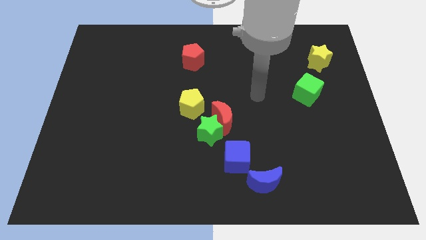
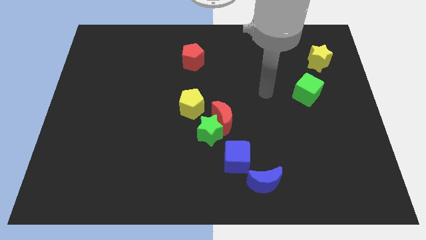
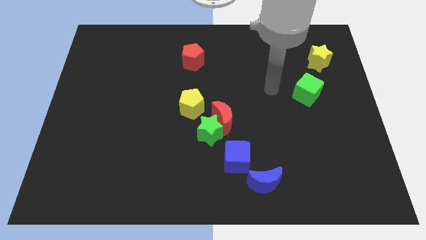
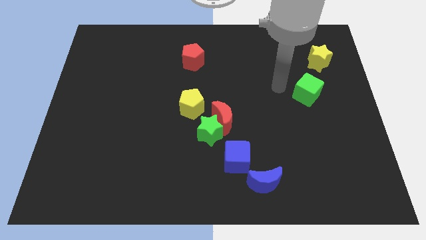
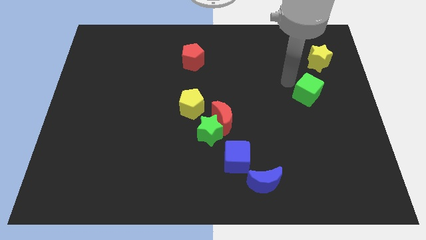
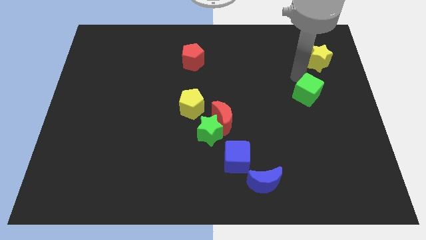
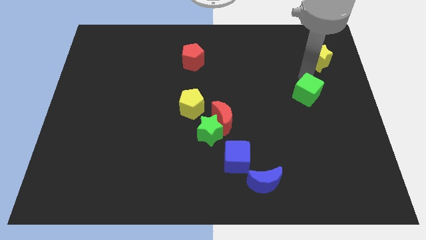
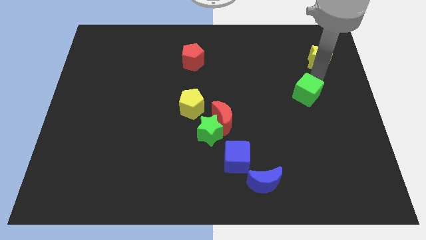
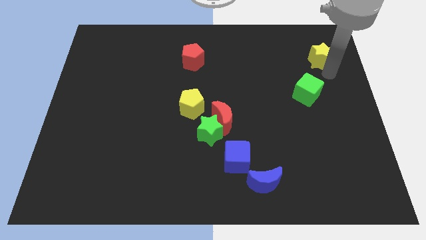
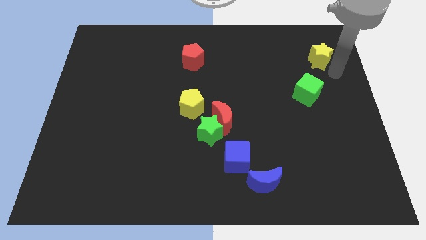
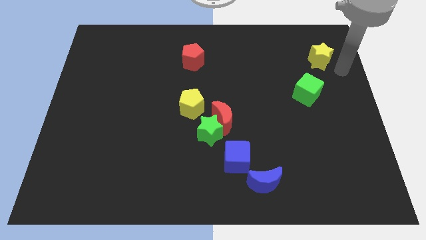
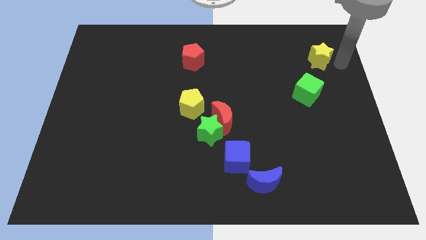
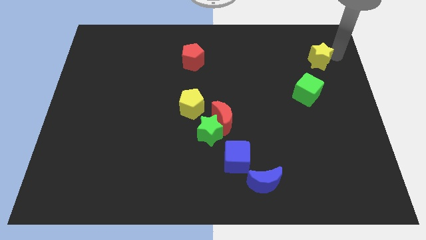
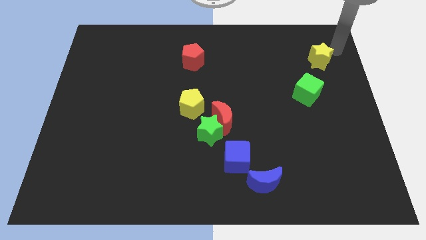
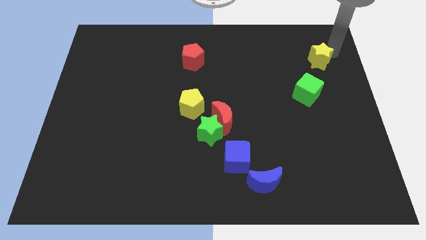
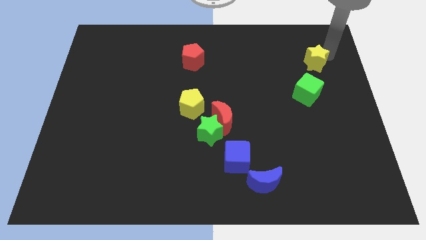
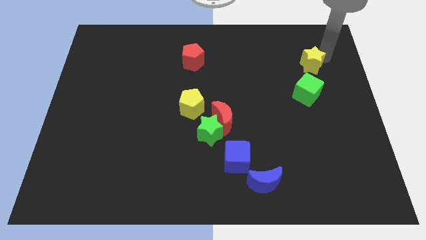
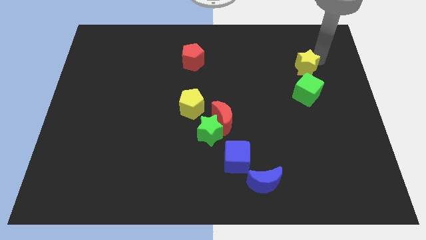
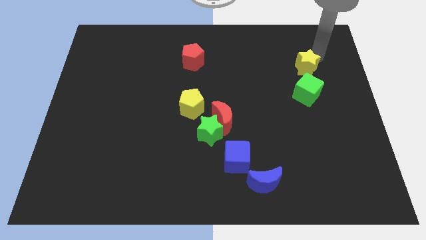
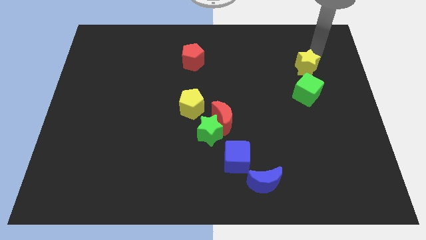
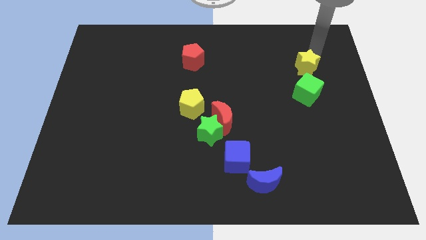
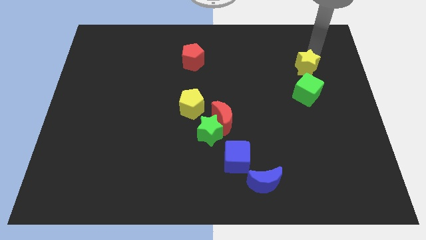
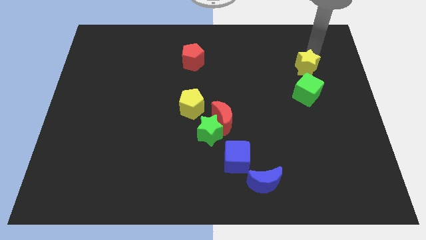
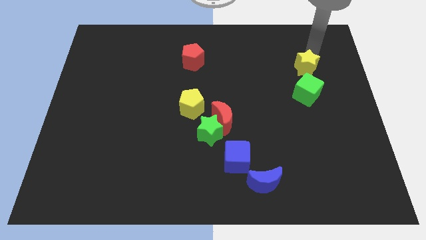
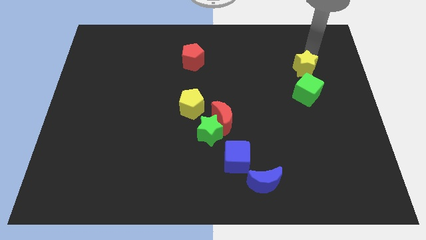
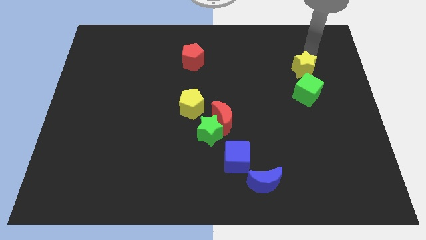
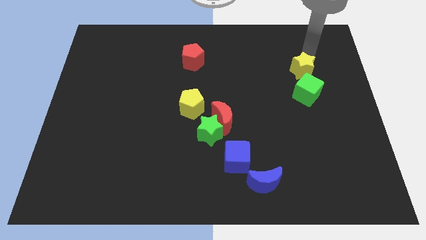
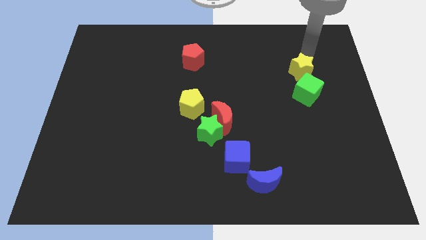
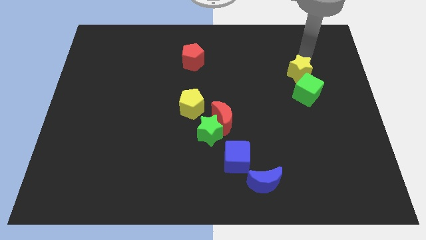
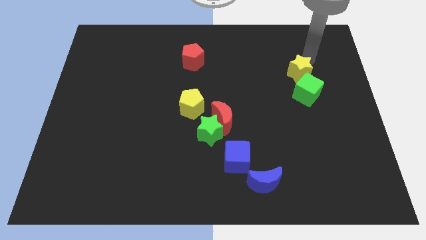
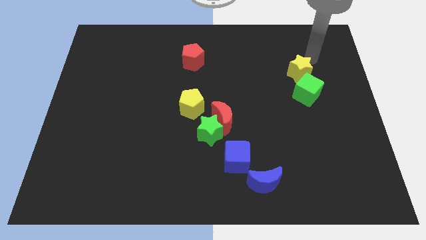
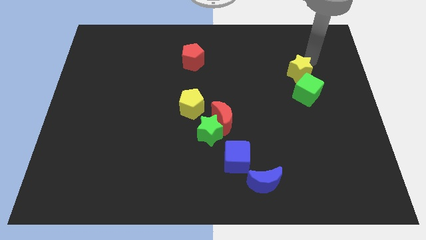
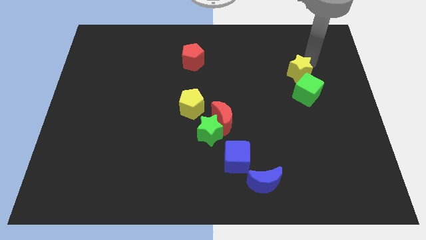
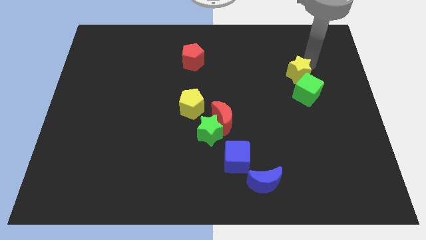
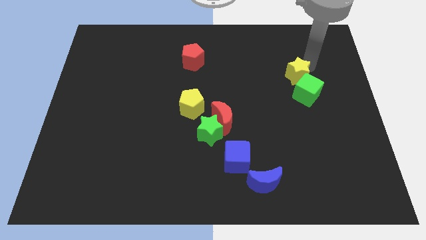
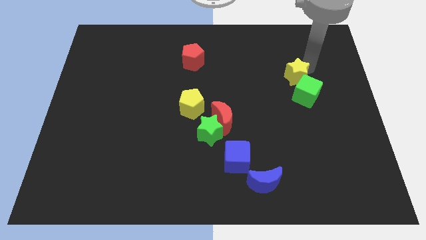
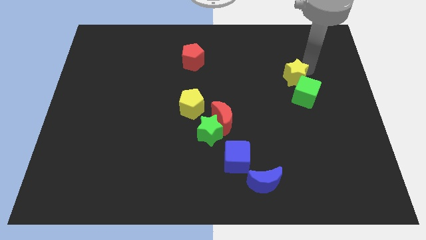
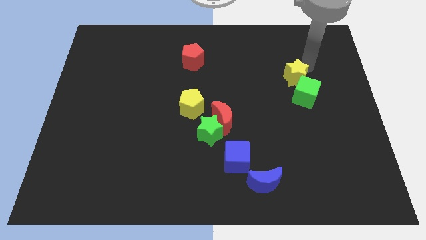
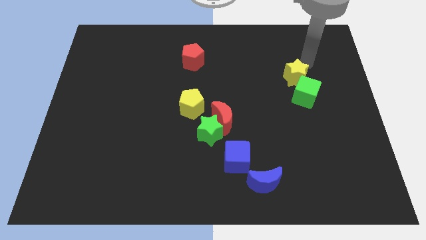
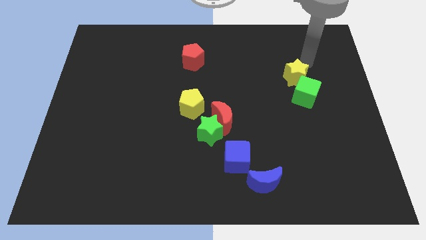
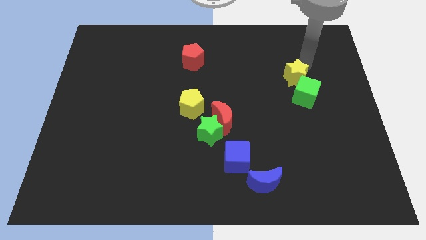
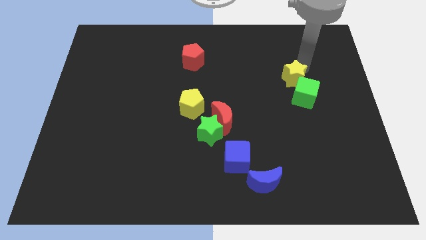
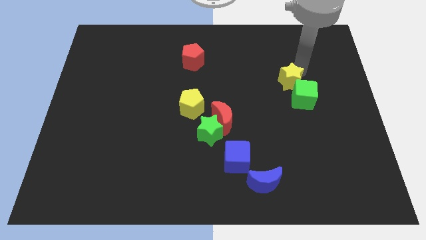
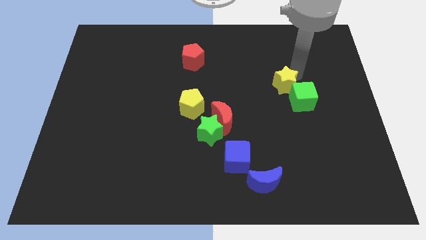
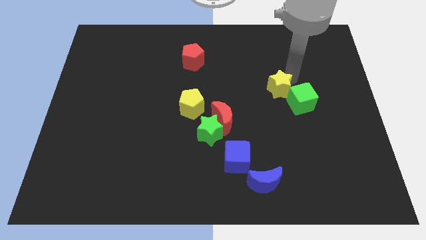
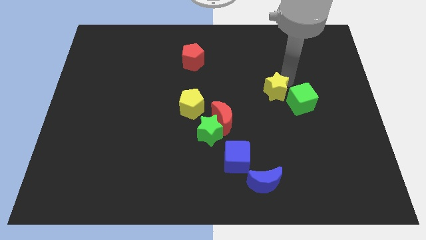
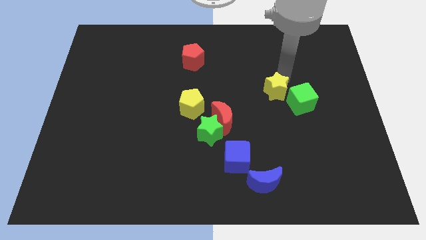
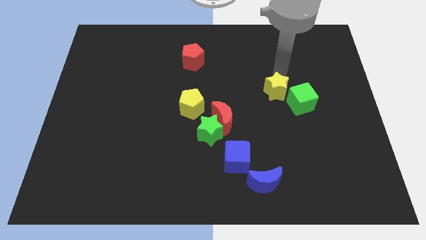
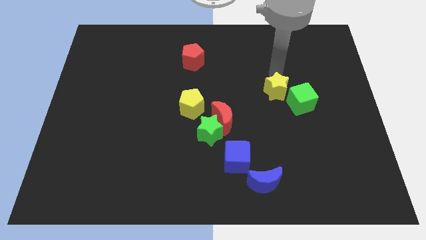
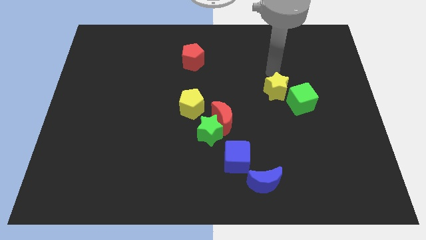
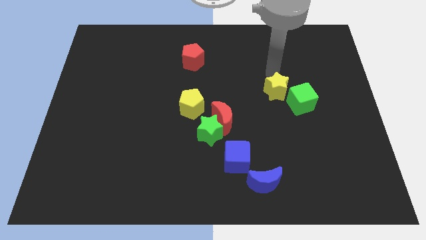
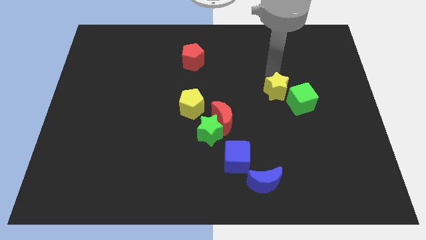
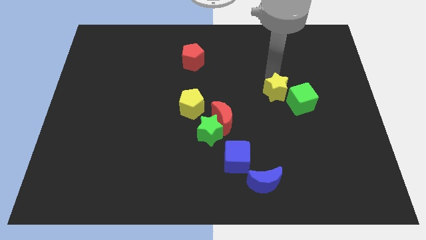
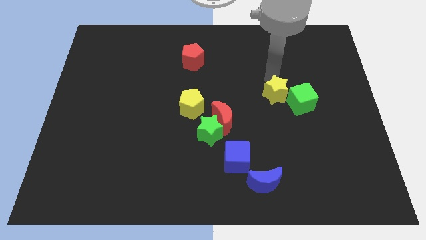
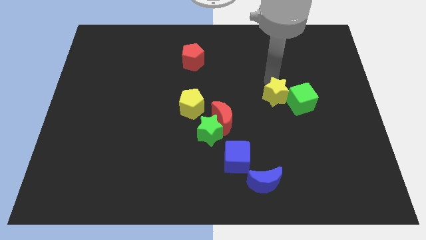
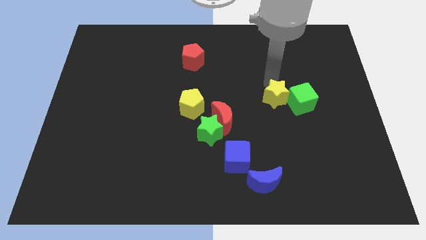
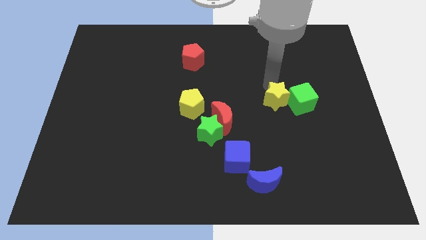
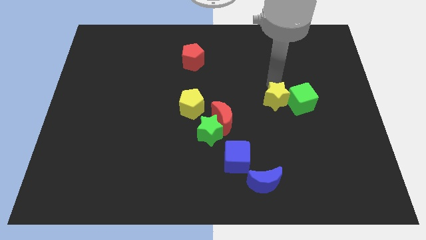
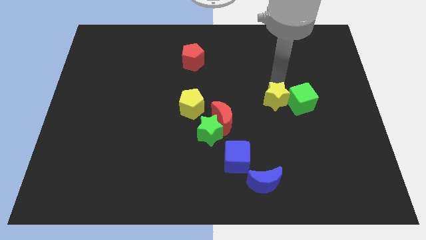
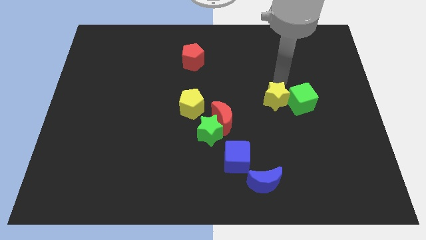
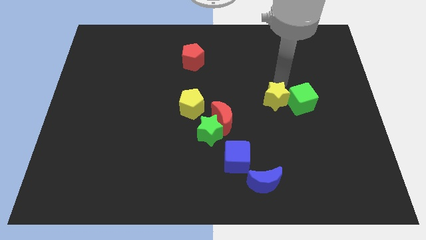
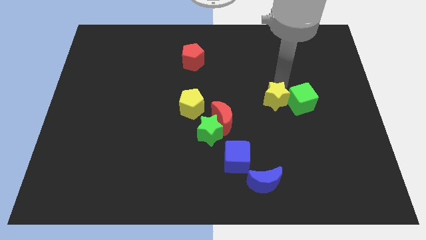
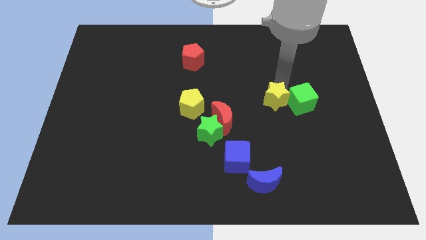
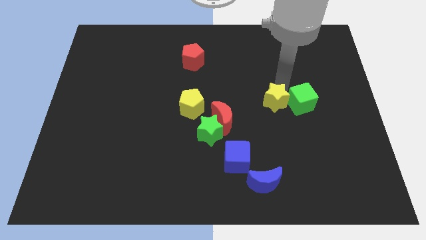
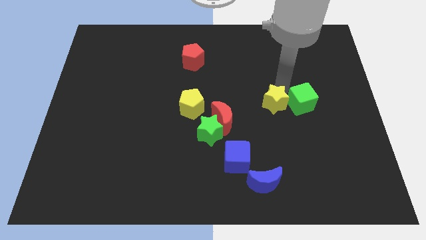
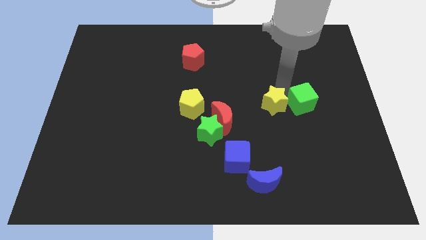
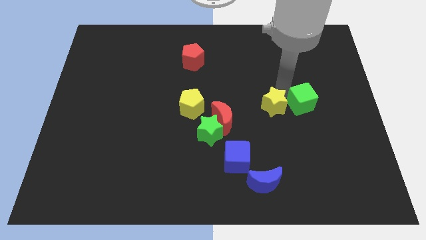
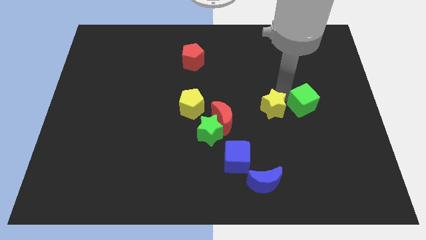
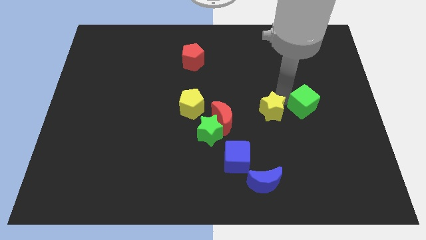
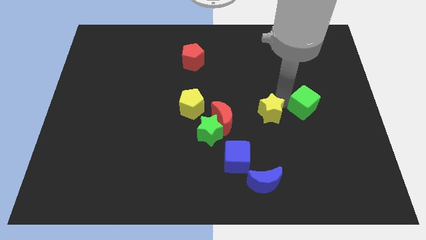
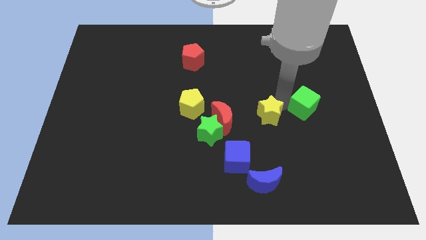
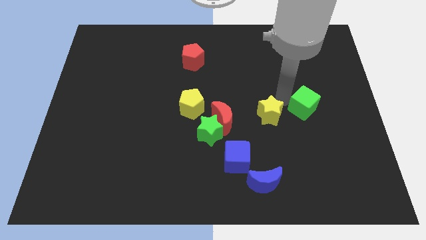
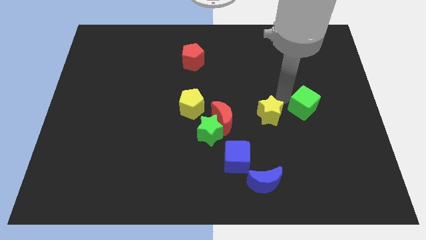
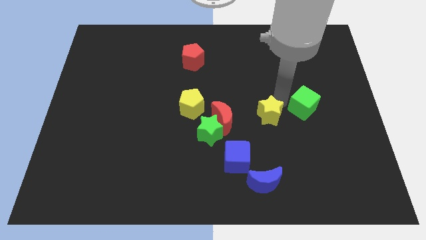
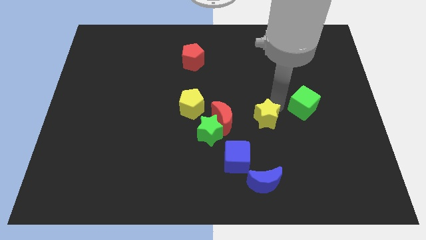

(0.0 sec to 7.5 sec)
put the yellow star to the right of the green star

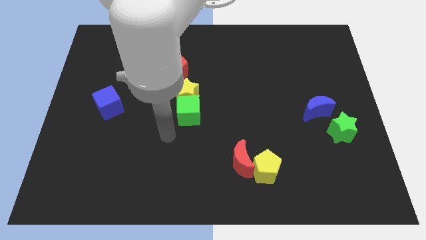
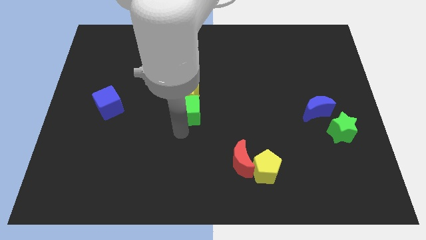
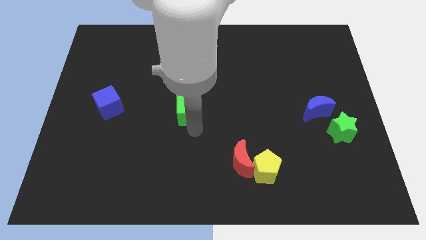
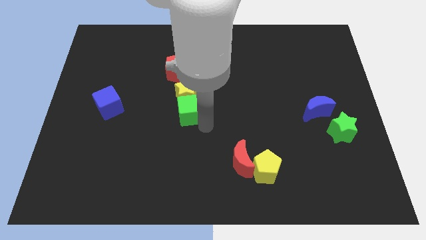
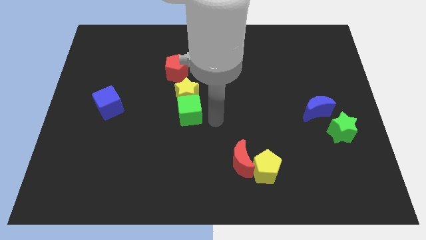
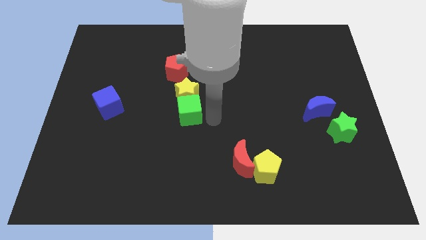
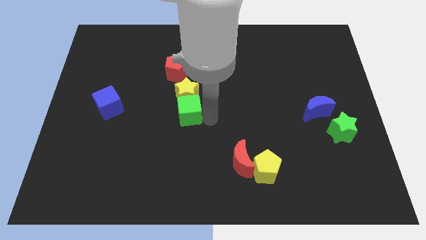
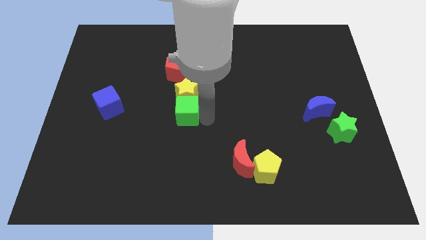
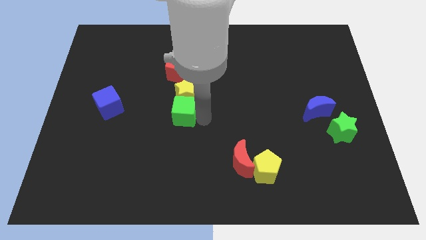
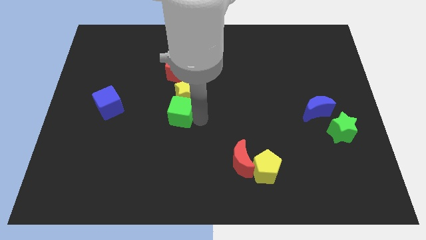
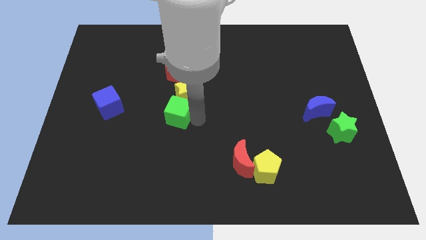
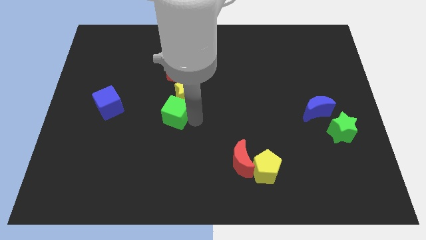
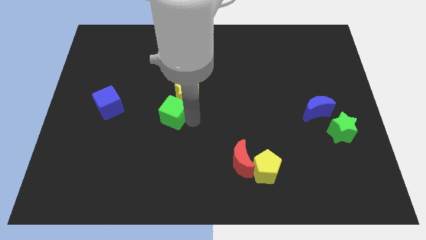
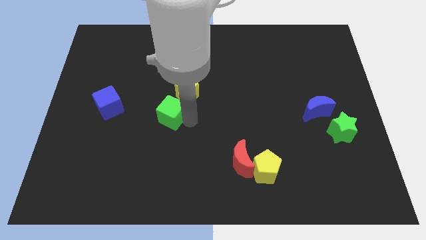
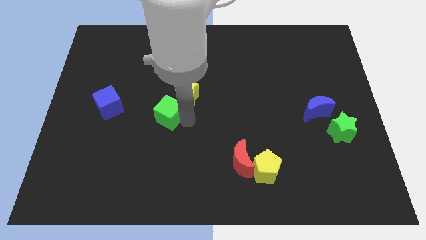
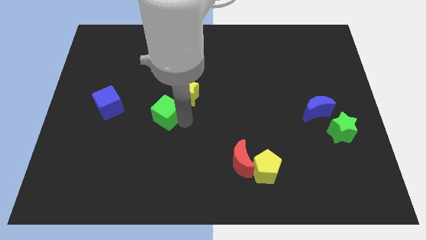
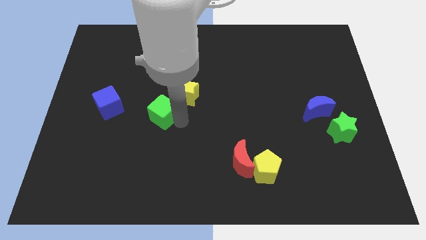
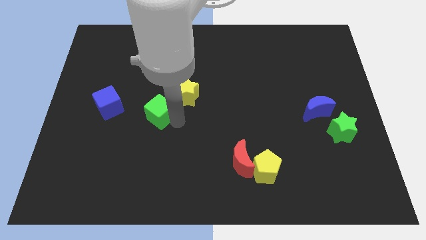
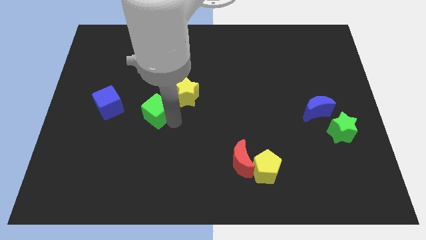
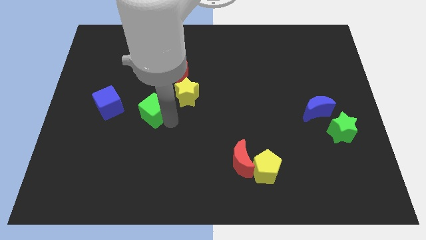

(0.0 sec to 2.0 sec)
put the green cube to the left side of the yellow star
